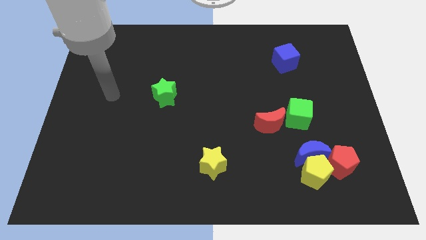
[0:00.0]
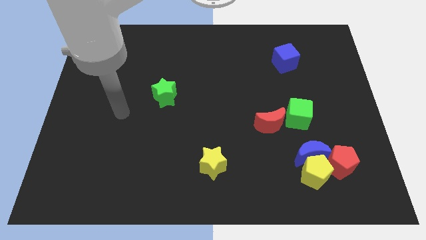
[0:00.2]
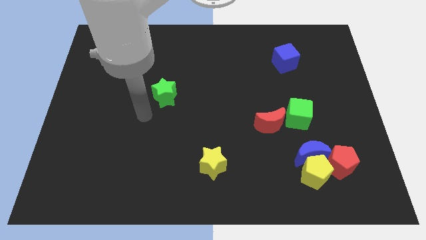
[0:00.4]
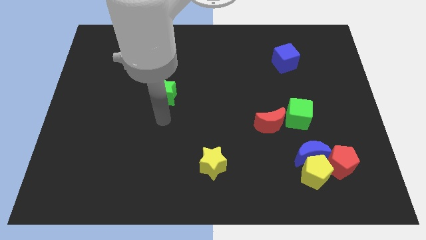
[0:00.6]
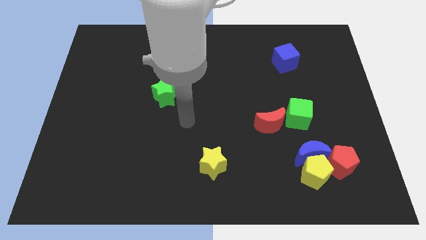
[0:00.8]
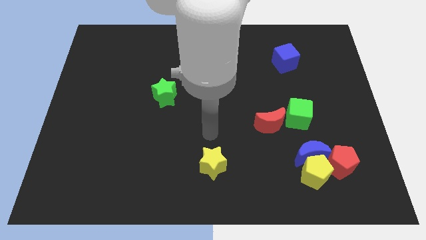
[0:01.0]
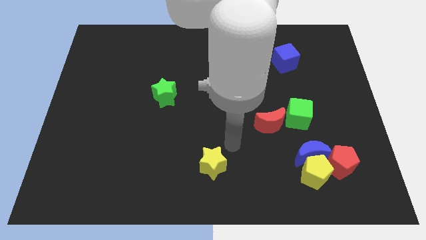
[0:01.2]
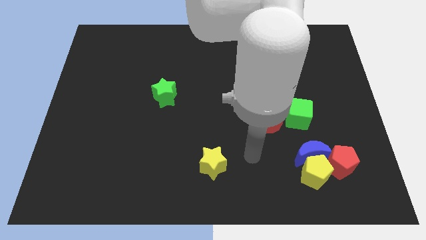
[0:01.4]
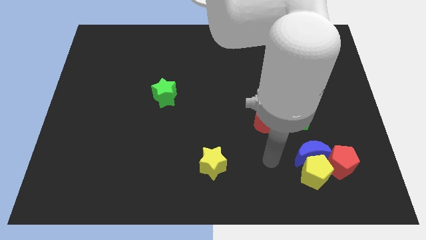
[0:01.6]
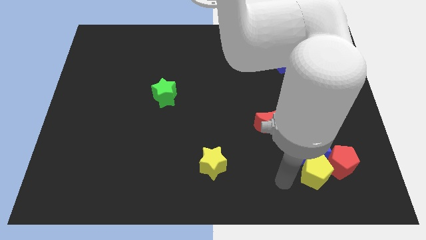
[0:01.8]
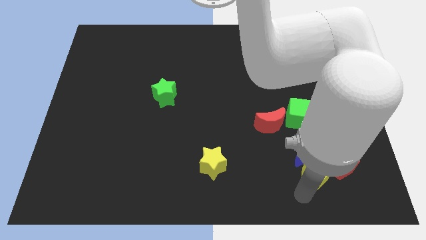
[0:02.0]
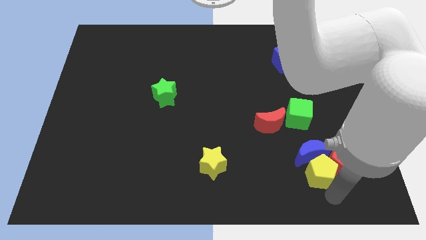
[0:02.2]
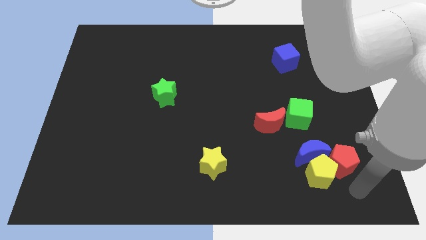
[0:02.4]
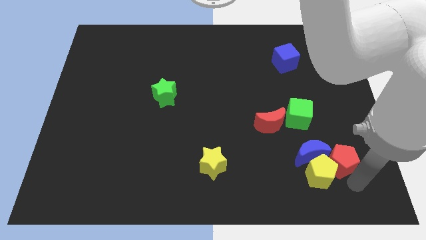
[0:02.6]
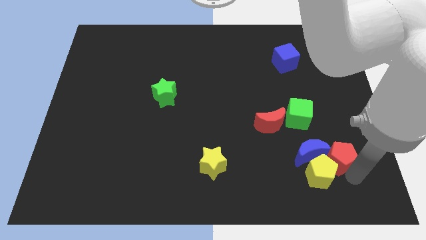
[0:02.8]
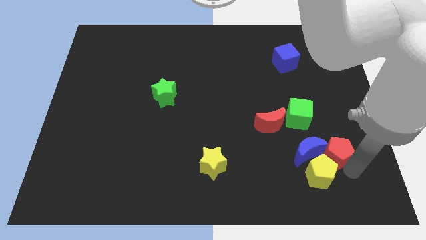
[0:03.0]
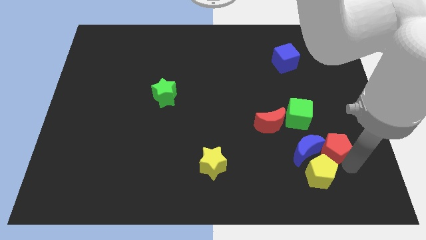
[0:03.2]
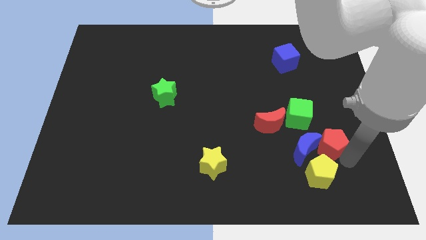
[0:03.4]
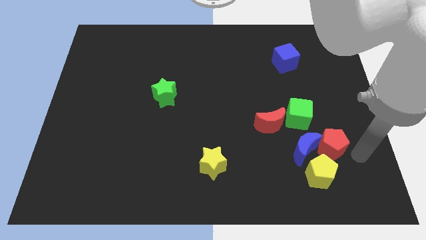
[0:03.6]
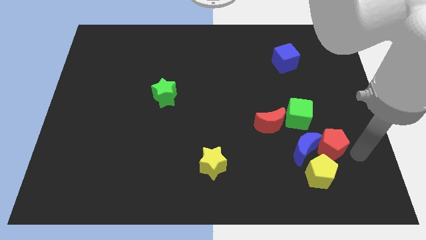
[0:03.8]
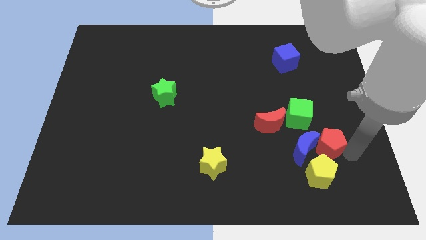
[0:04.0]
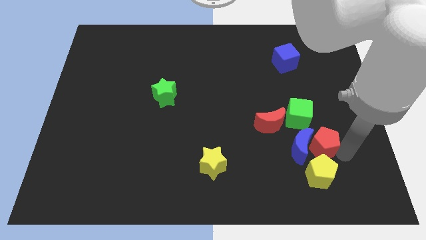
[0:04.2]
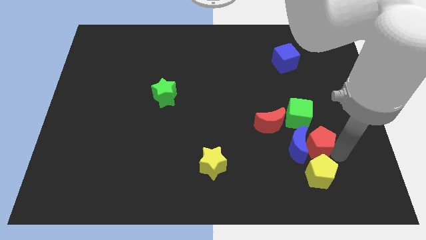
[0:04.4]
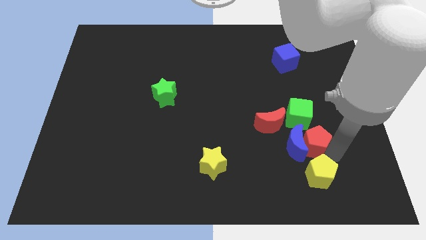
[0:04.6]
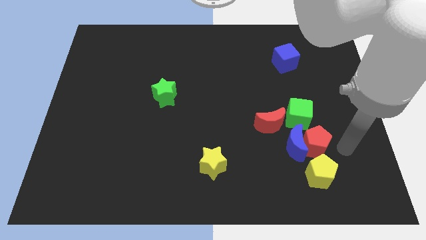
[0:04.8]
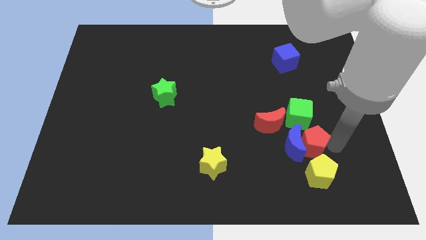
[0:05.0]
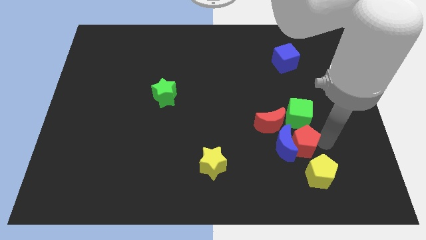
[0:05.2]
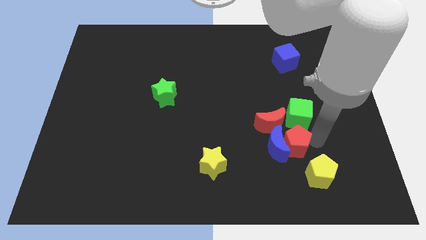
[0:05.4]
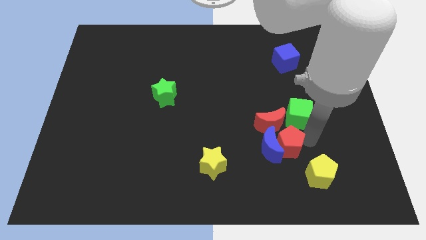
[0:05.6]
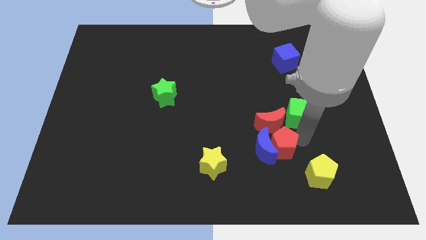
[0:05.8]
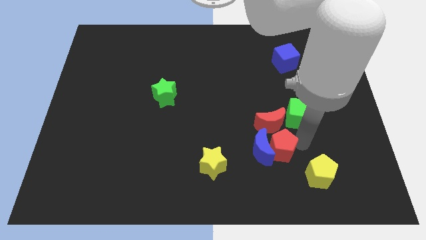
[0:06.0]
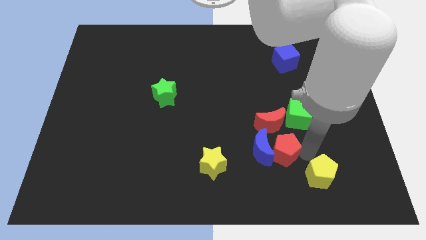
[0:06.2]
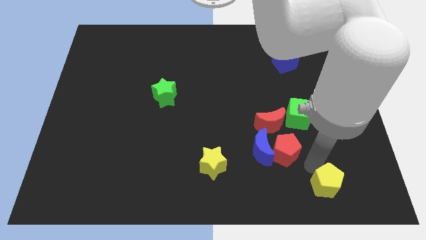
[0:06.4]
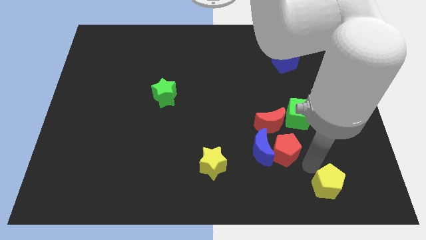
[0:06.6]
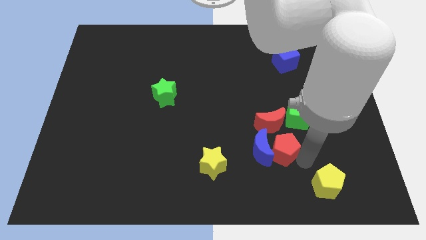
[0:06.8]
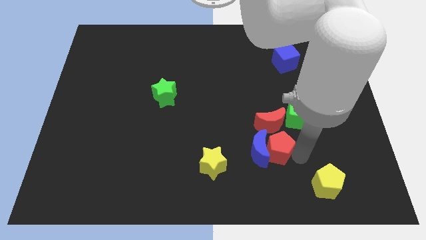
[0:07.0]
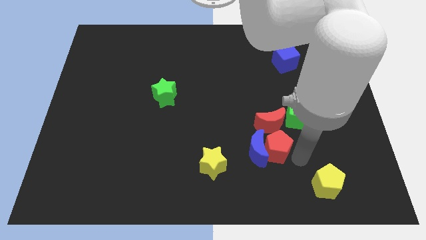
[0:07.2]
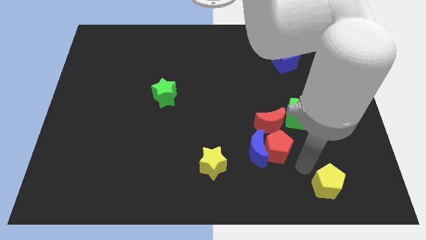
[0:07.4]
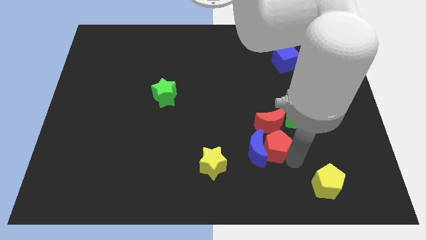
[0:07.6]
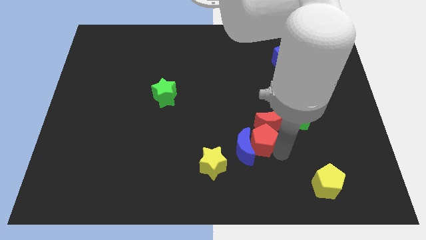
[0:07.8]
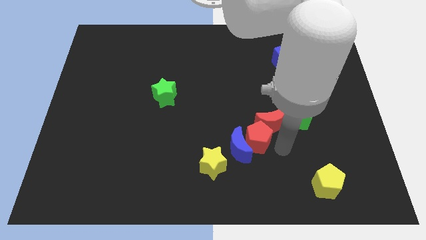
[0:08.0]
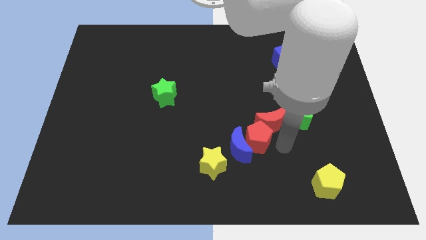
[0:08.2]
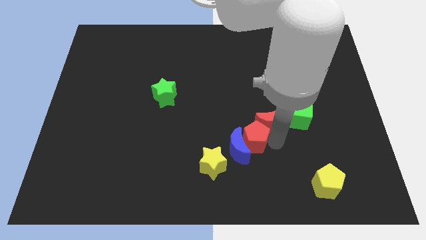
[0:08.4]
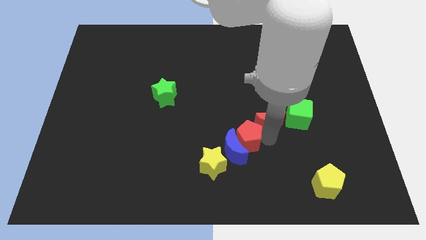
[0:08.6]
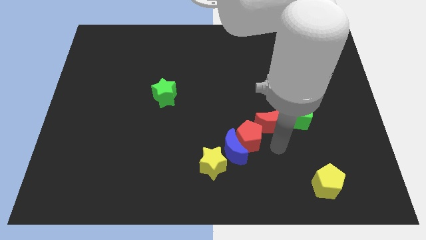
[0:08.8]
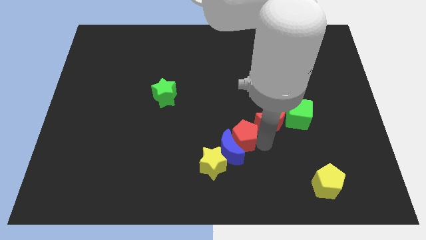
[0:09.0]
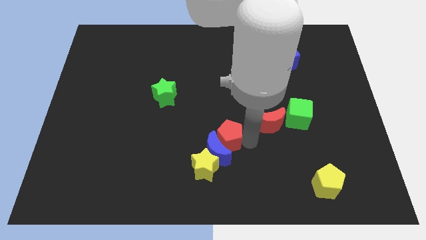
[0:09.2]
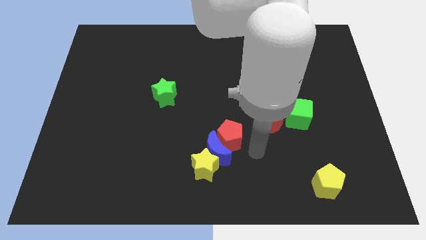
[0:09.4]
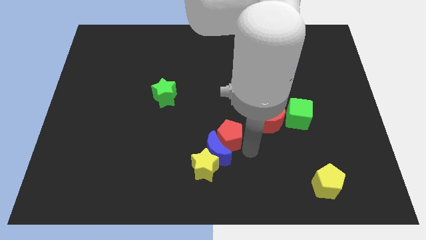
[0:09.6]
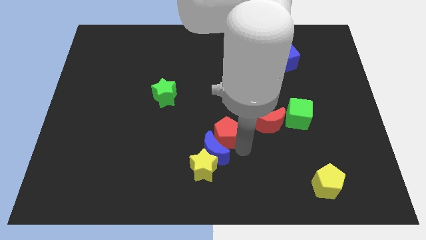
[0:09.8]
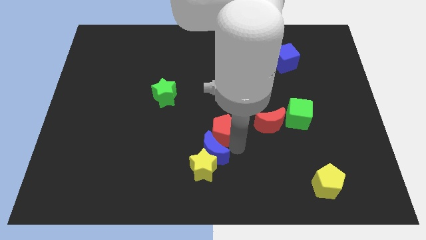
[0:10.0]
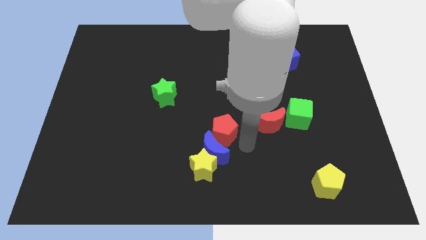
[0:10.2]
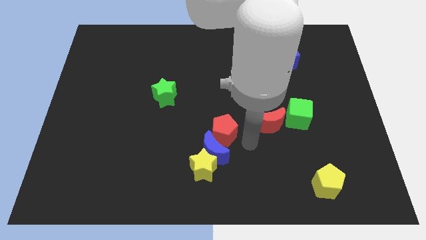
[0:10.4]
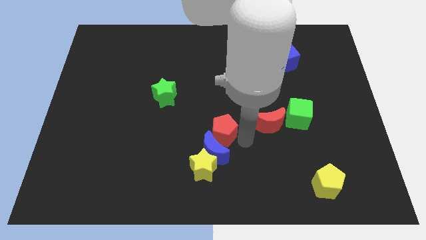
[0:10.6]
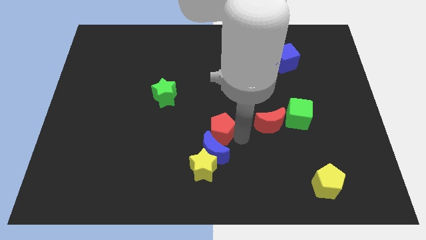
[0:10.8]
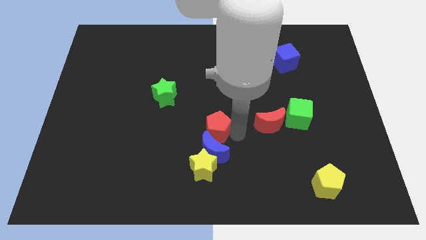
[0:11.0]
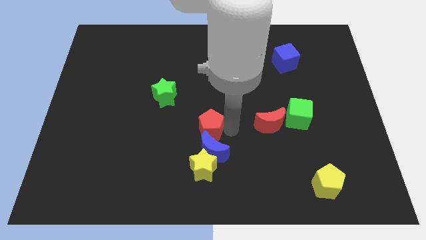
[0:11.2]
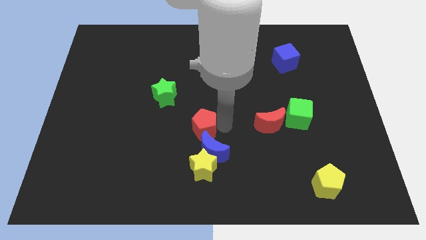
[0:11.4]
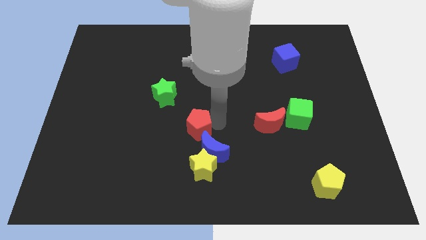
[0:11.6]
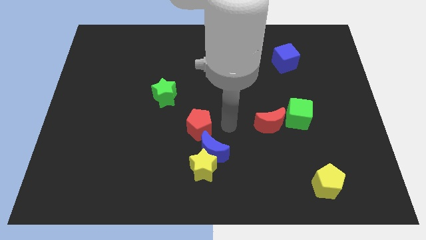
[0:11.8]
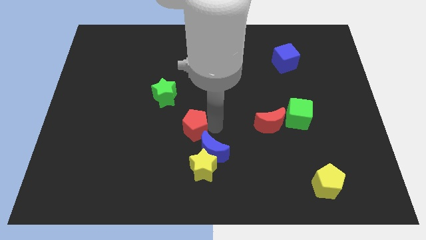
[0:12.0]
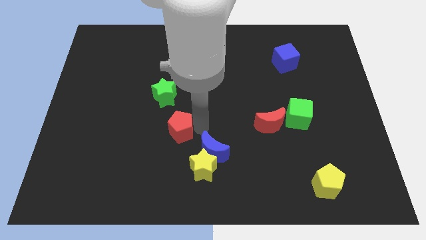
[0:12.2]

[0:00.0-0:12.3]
move the red pentagon below the green star

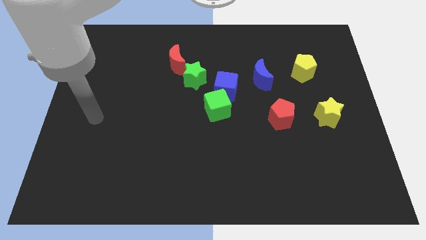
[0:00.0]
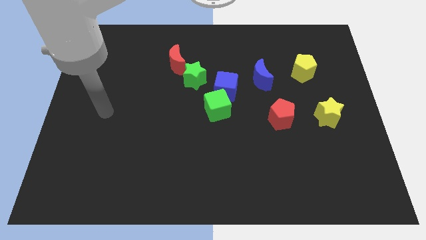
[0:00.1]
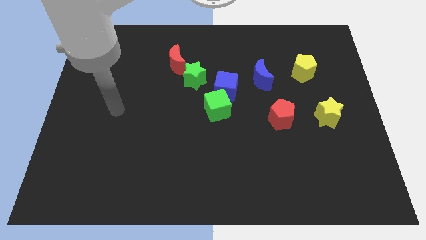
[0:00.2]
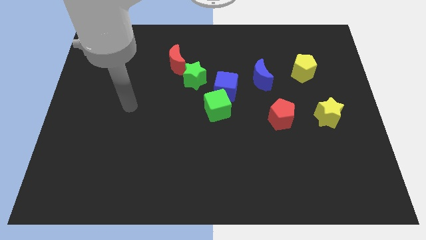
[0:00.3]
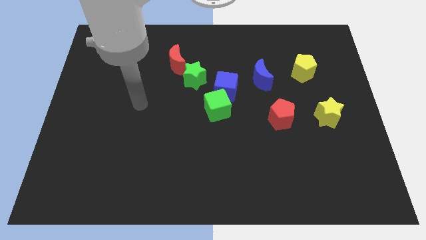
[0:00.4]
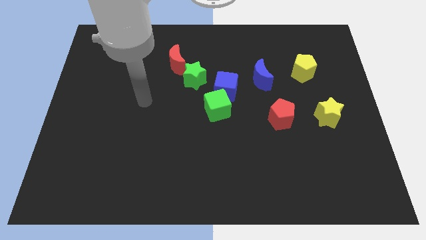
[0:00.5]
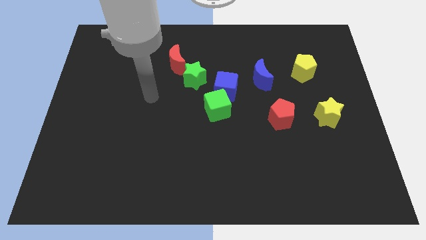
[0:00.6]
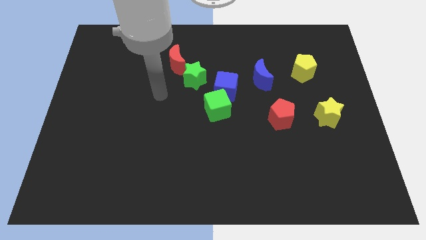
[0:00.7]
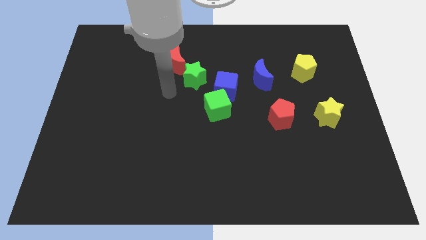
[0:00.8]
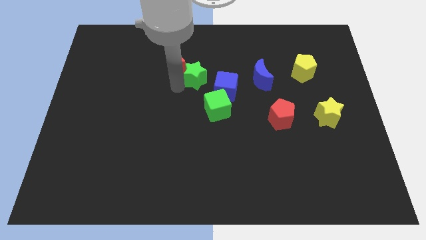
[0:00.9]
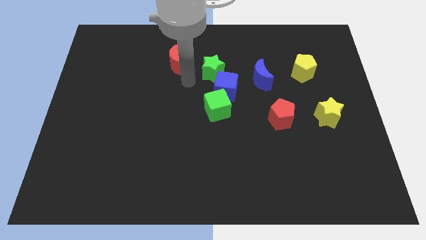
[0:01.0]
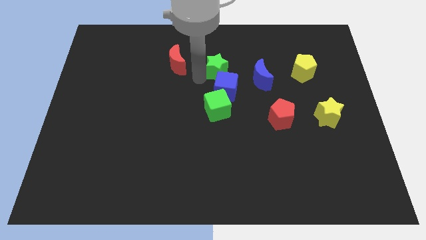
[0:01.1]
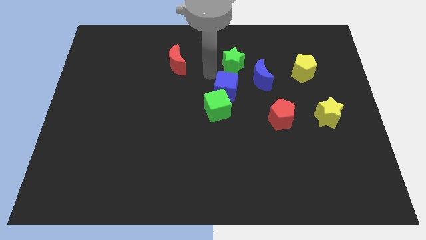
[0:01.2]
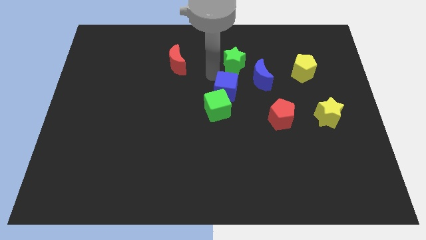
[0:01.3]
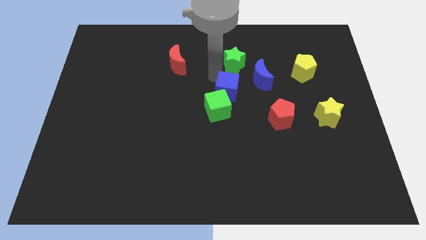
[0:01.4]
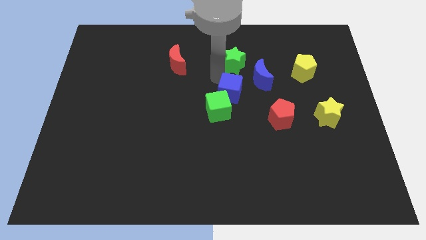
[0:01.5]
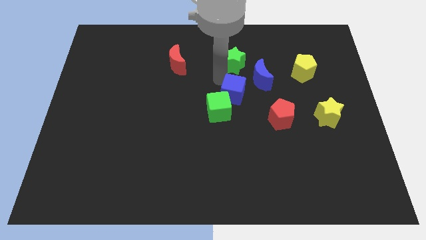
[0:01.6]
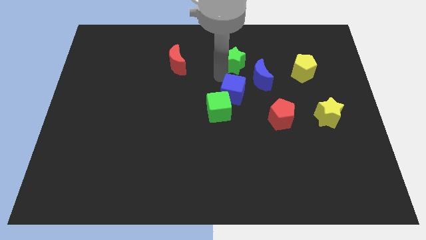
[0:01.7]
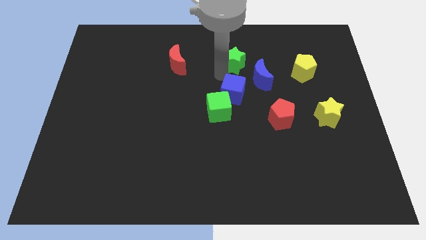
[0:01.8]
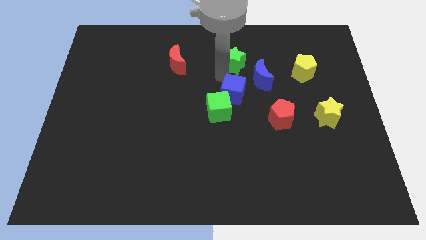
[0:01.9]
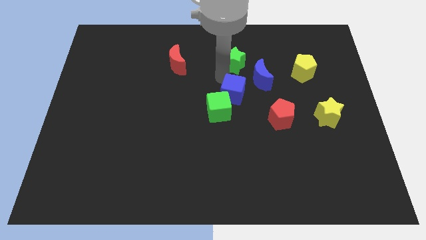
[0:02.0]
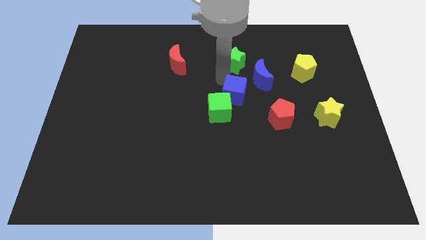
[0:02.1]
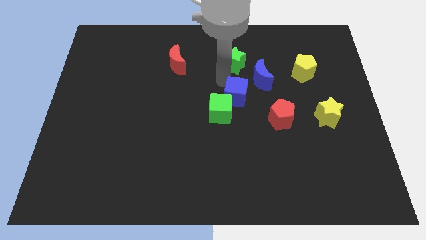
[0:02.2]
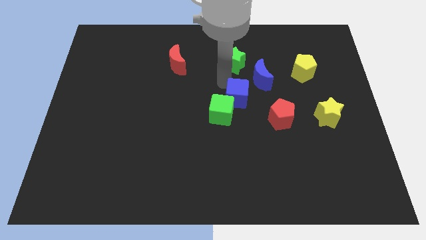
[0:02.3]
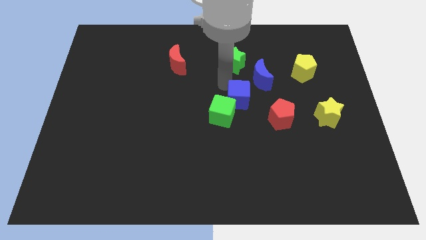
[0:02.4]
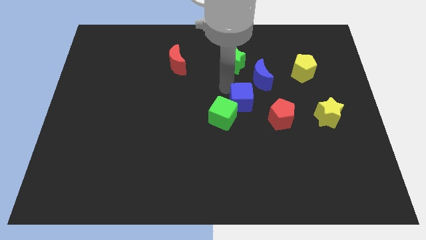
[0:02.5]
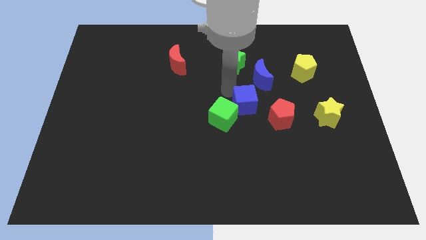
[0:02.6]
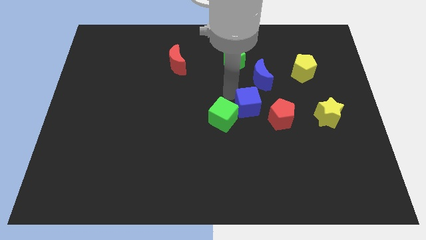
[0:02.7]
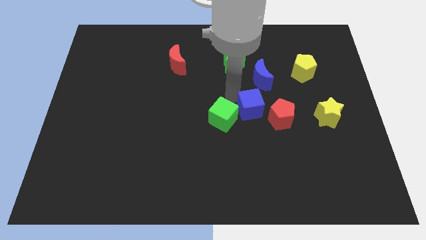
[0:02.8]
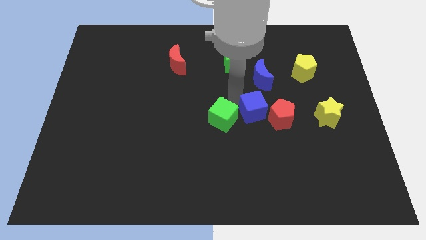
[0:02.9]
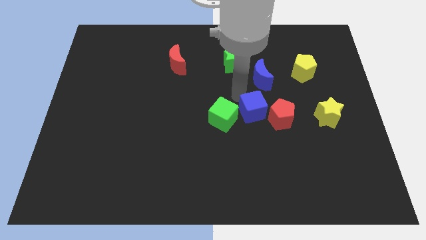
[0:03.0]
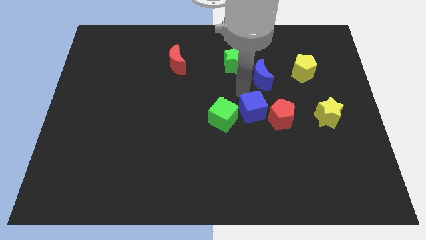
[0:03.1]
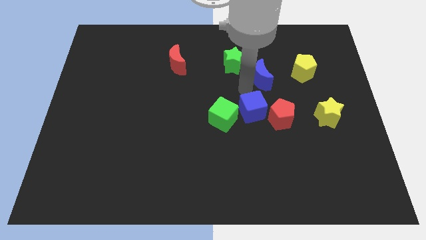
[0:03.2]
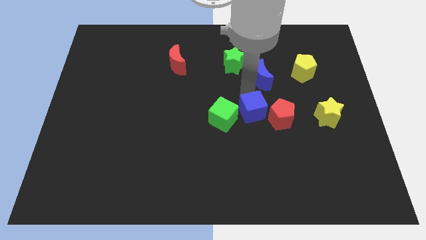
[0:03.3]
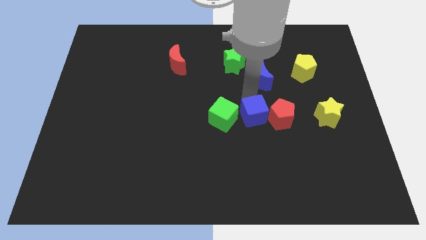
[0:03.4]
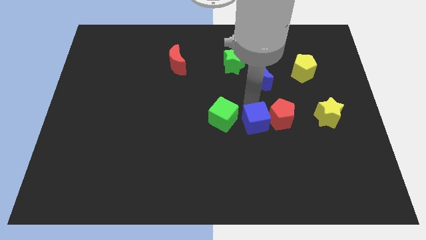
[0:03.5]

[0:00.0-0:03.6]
slide the blue cube to the bottom left side of the red pentagon
